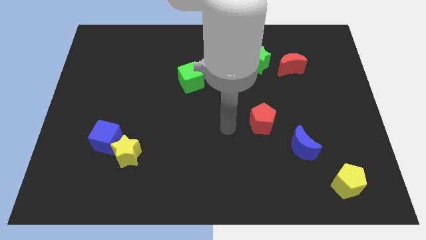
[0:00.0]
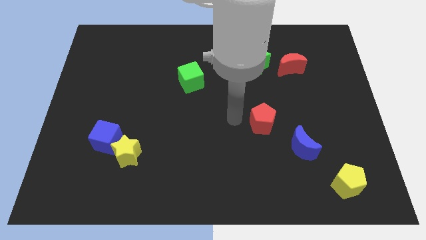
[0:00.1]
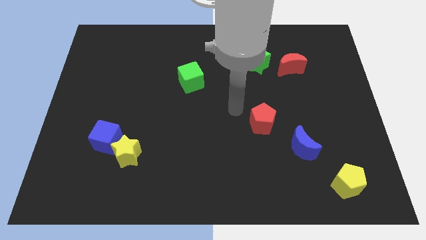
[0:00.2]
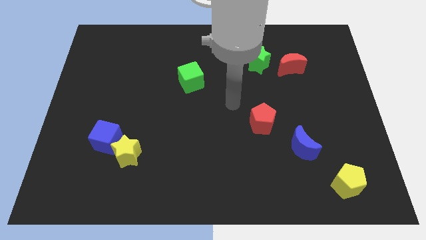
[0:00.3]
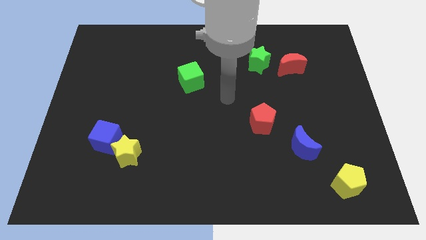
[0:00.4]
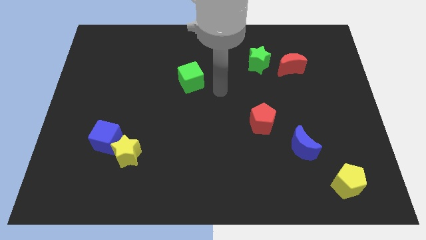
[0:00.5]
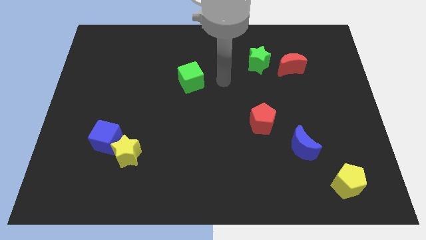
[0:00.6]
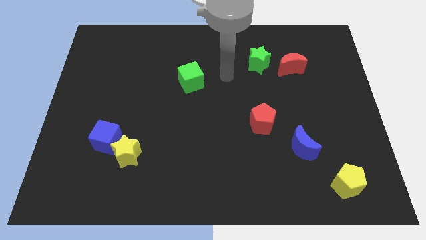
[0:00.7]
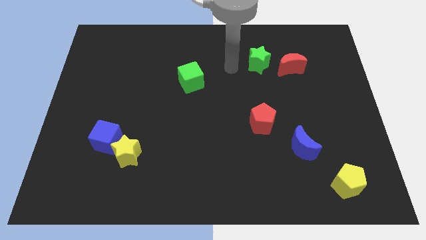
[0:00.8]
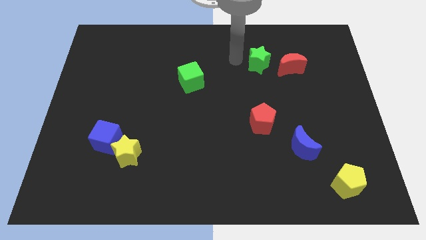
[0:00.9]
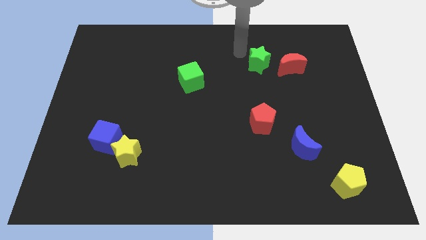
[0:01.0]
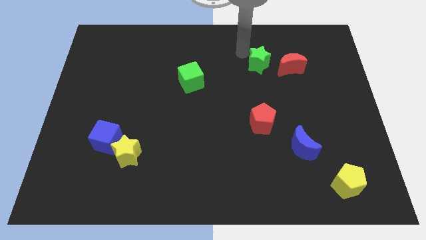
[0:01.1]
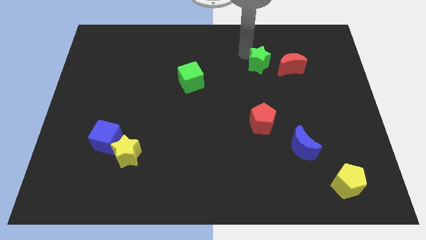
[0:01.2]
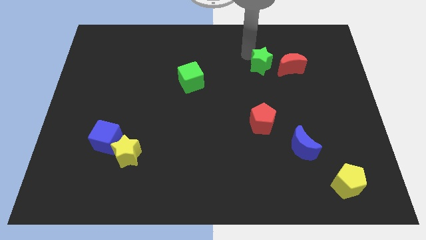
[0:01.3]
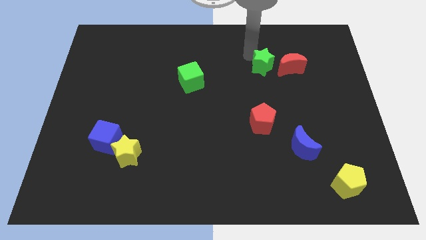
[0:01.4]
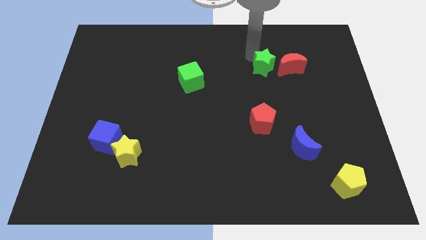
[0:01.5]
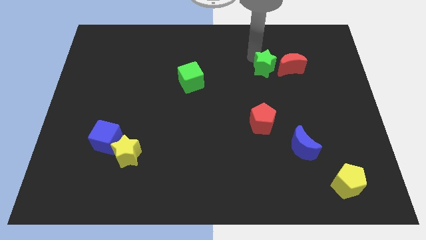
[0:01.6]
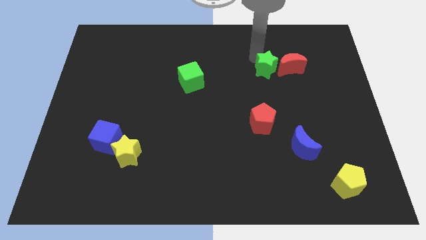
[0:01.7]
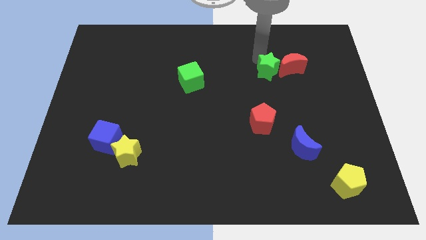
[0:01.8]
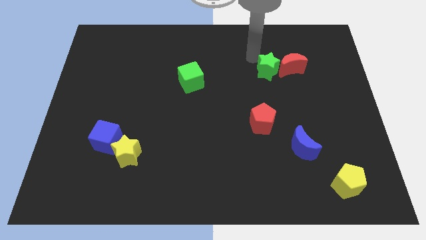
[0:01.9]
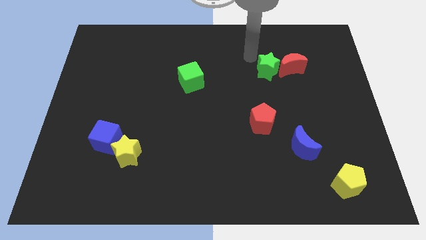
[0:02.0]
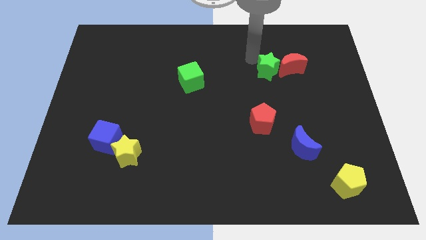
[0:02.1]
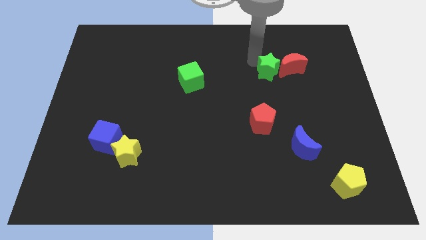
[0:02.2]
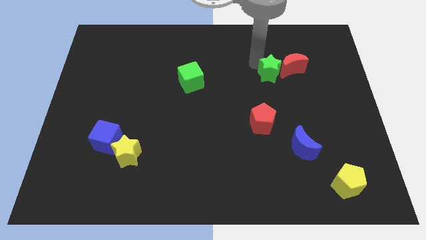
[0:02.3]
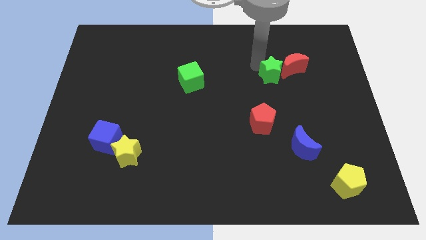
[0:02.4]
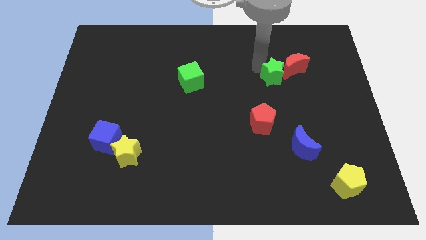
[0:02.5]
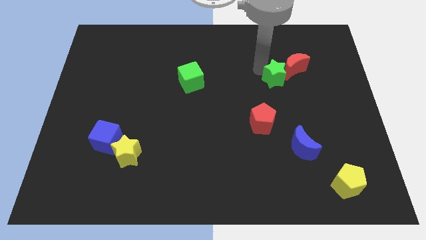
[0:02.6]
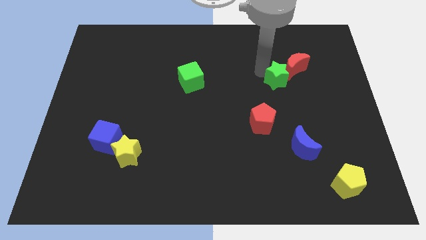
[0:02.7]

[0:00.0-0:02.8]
slightly move the green star down and to the right diagonally

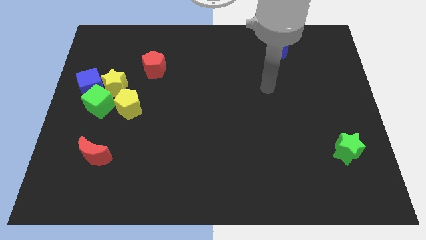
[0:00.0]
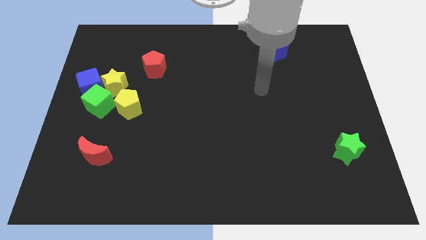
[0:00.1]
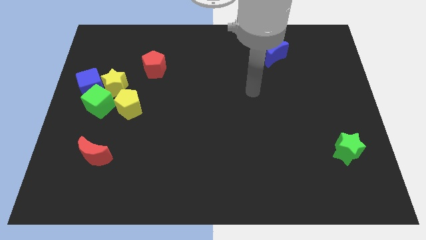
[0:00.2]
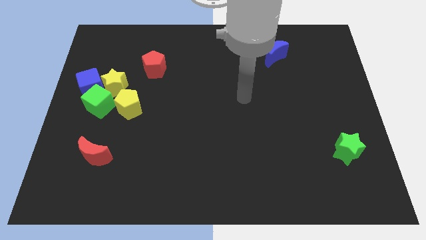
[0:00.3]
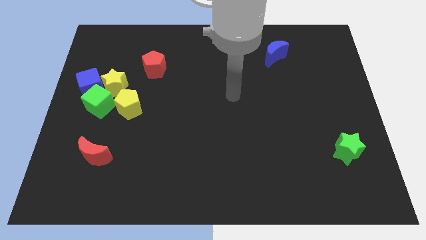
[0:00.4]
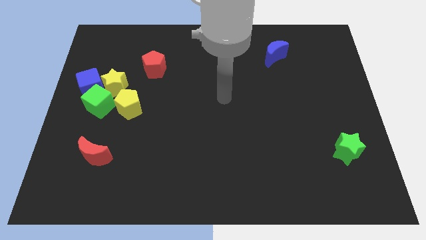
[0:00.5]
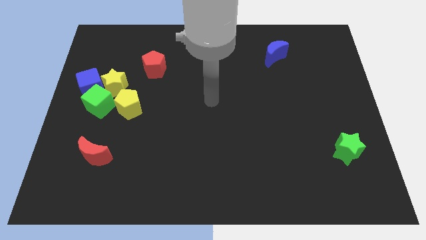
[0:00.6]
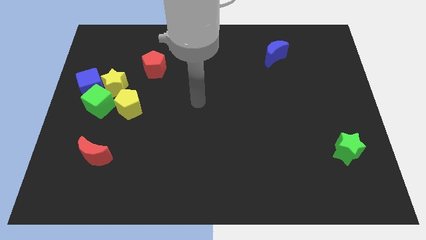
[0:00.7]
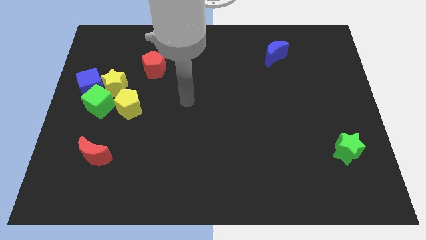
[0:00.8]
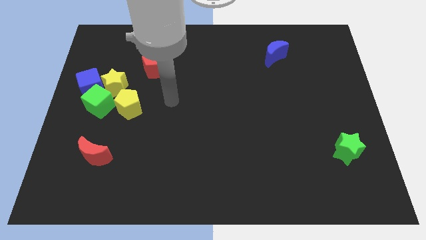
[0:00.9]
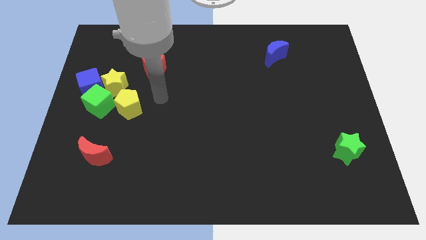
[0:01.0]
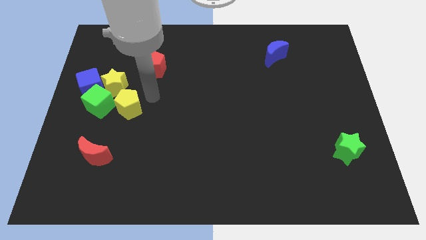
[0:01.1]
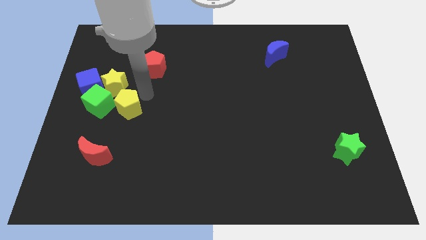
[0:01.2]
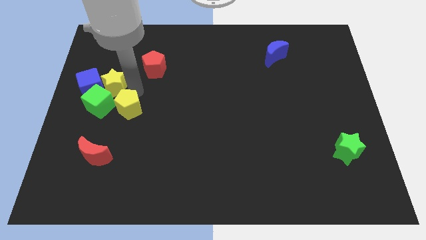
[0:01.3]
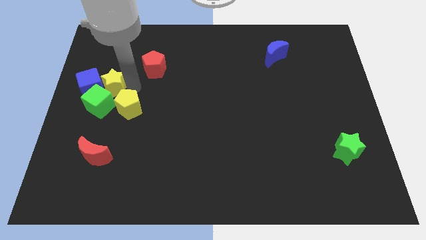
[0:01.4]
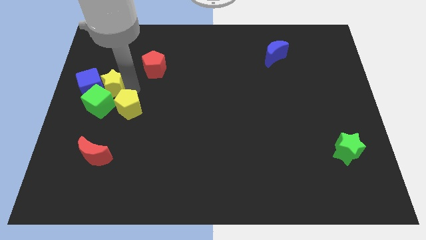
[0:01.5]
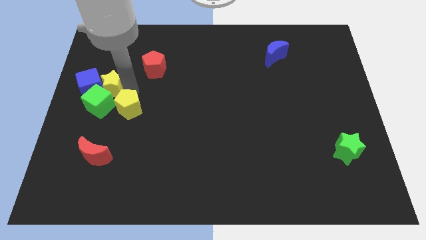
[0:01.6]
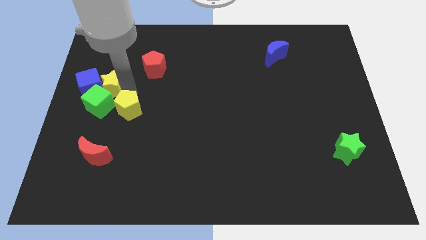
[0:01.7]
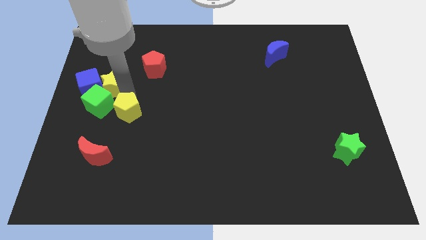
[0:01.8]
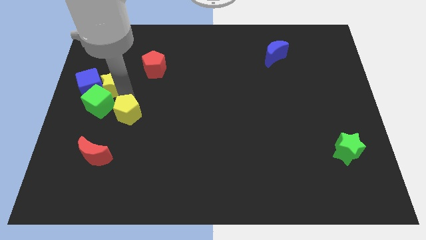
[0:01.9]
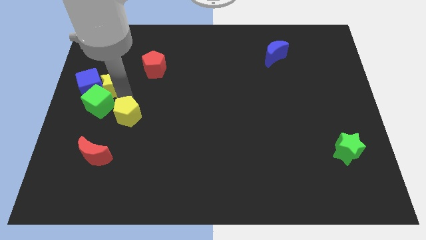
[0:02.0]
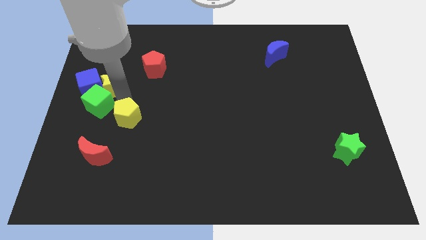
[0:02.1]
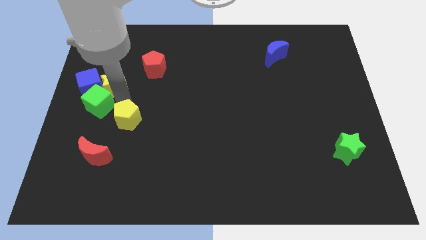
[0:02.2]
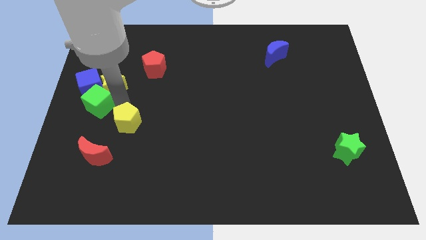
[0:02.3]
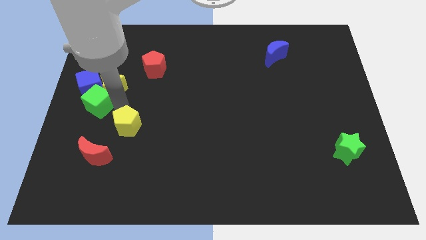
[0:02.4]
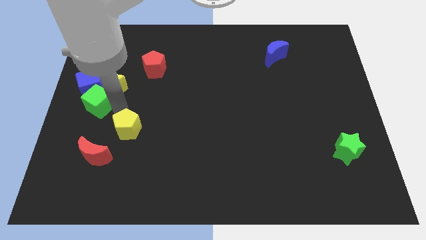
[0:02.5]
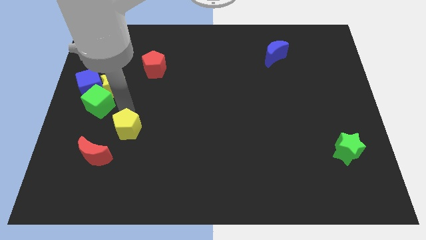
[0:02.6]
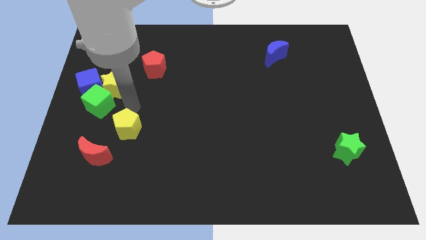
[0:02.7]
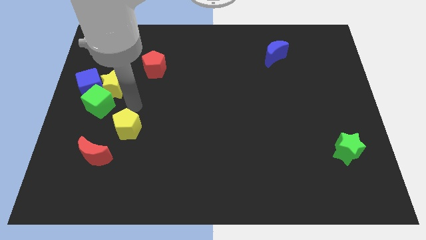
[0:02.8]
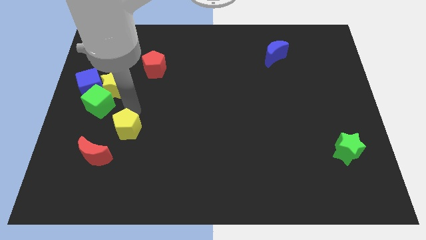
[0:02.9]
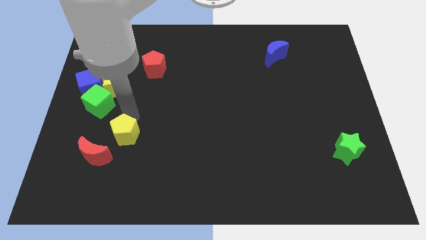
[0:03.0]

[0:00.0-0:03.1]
push the yellow pentagon down slightly

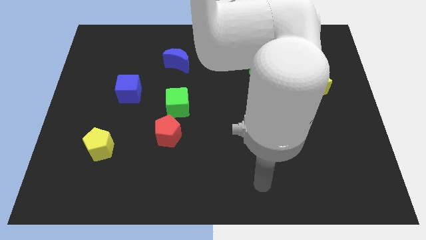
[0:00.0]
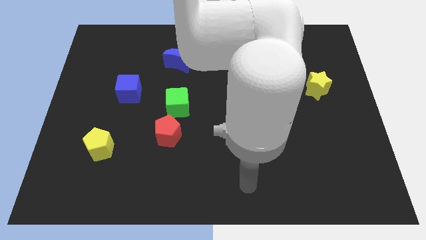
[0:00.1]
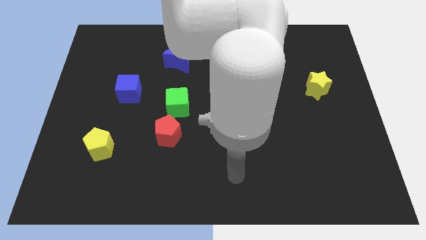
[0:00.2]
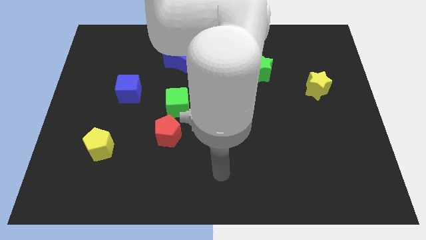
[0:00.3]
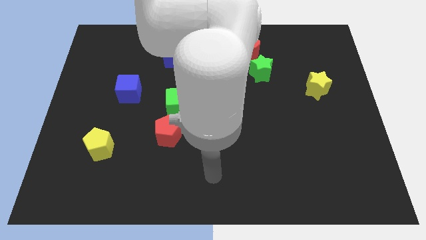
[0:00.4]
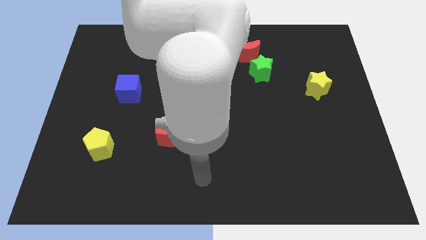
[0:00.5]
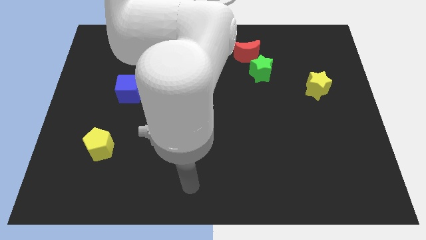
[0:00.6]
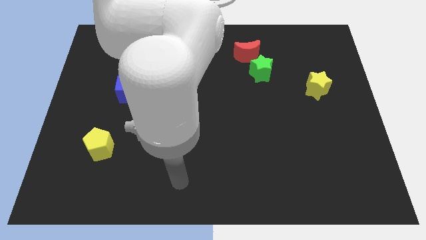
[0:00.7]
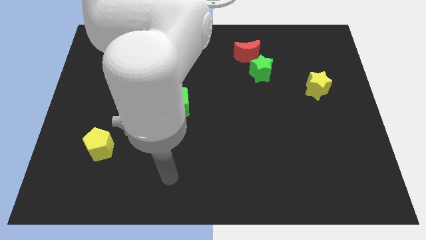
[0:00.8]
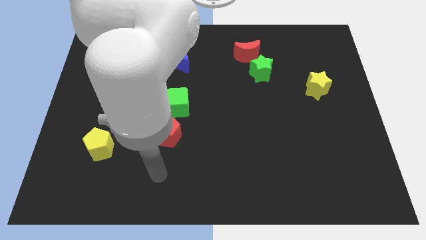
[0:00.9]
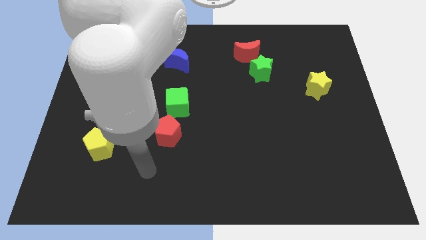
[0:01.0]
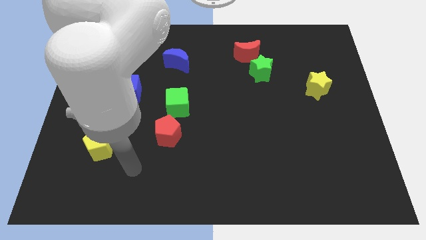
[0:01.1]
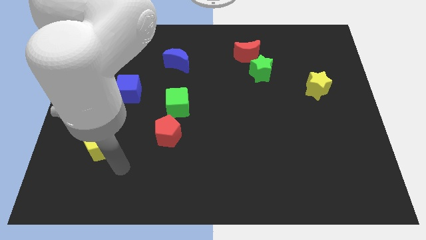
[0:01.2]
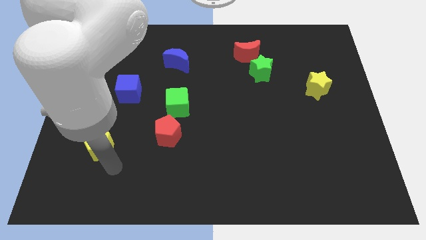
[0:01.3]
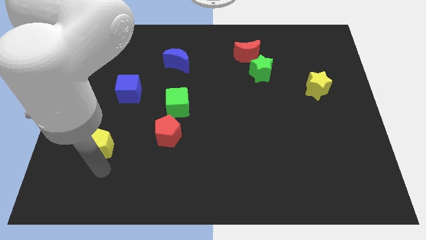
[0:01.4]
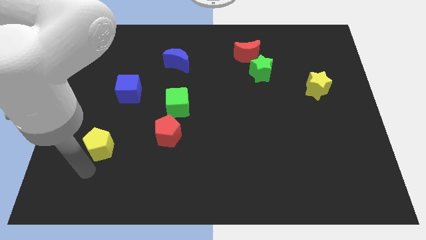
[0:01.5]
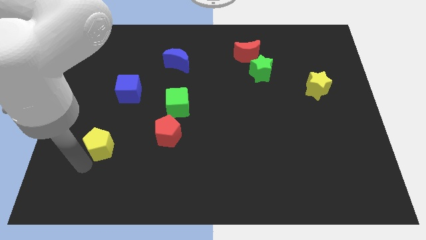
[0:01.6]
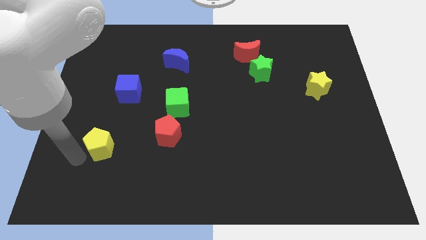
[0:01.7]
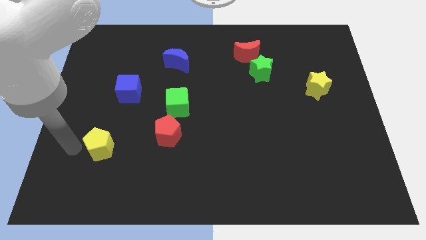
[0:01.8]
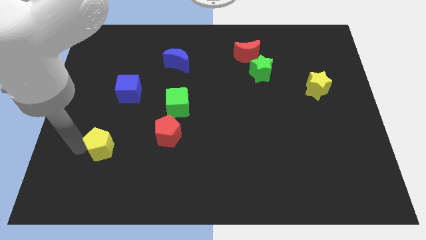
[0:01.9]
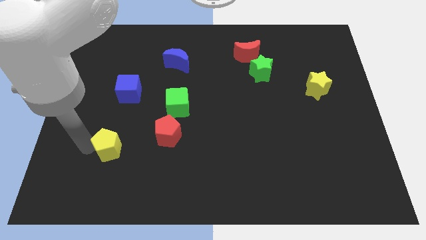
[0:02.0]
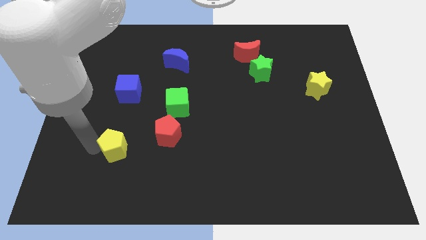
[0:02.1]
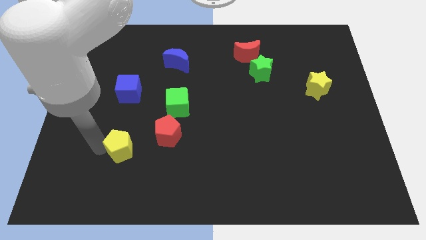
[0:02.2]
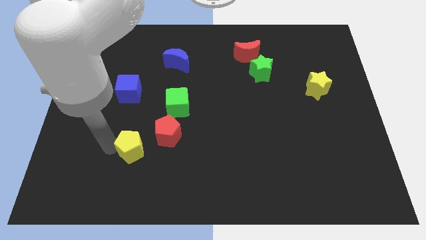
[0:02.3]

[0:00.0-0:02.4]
push the yellow pentagon somewhat right
